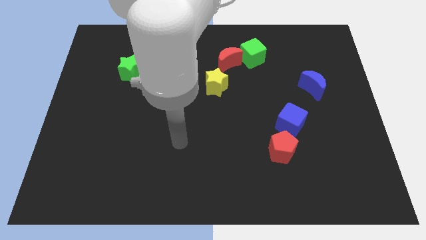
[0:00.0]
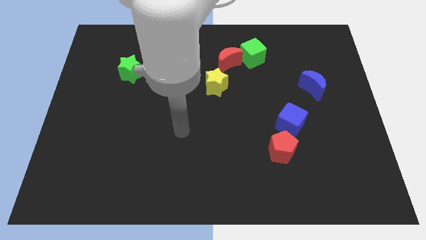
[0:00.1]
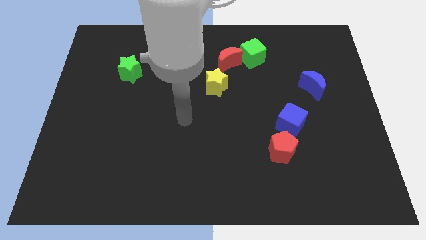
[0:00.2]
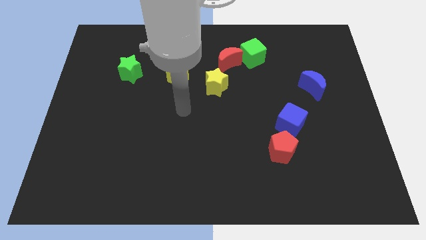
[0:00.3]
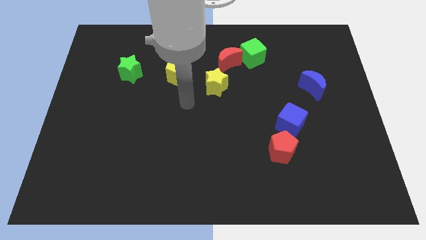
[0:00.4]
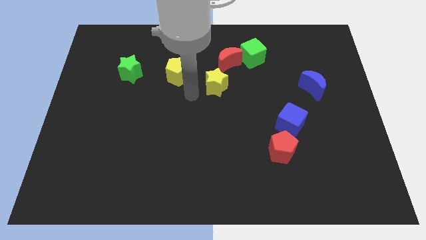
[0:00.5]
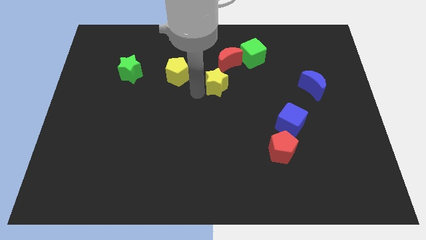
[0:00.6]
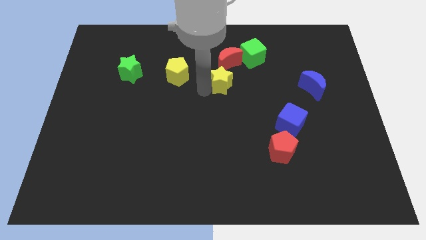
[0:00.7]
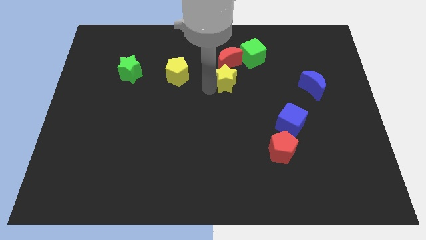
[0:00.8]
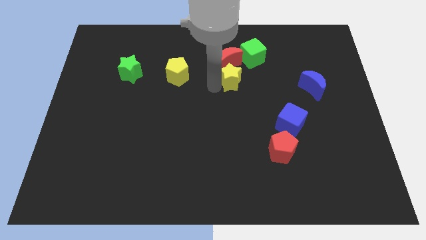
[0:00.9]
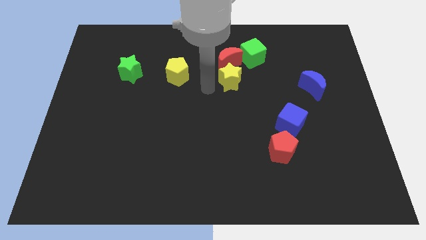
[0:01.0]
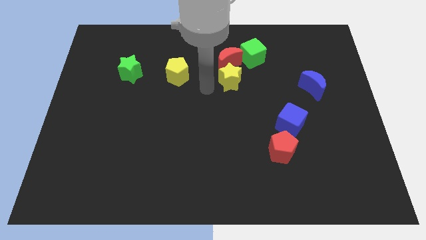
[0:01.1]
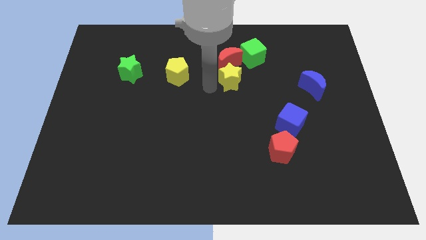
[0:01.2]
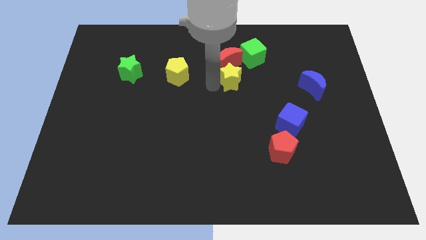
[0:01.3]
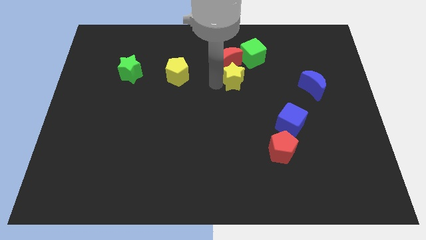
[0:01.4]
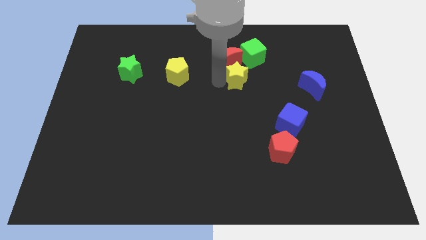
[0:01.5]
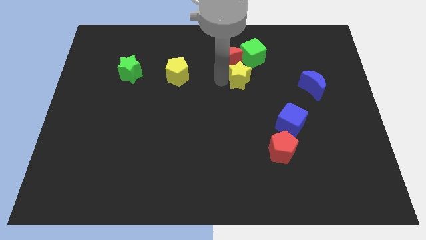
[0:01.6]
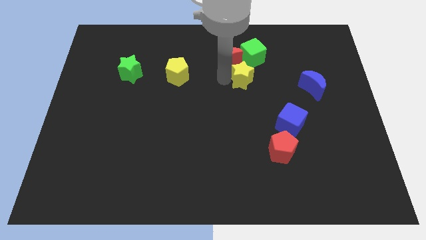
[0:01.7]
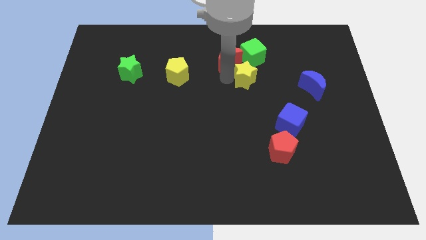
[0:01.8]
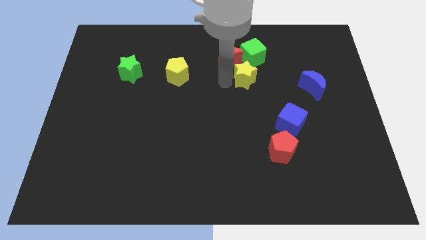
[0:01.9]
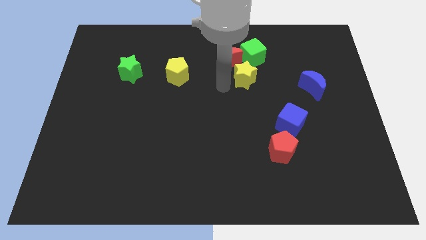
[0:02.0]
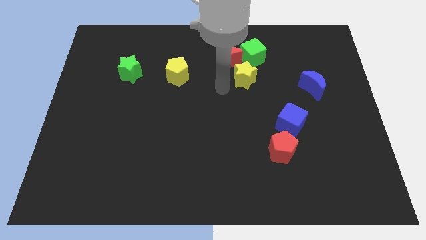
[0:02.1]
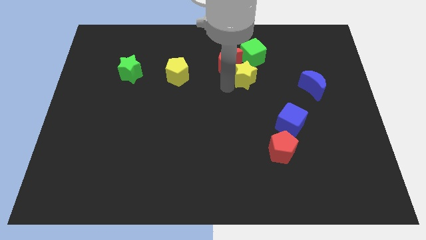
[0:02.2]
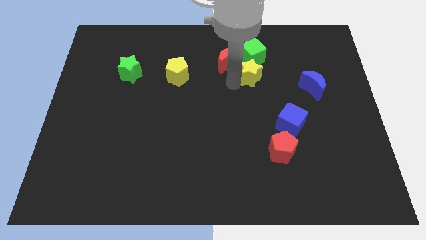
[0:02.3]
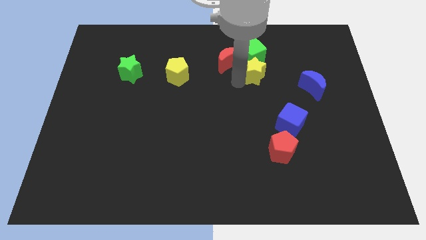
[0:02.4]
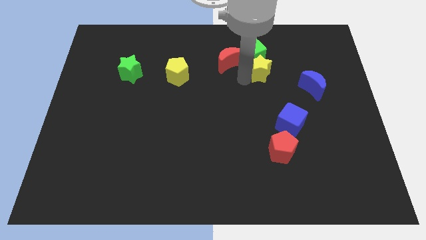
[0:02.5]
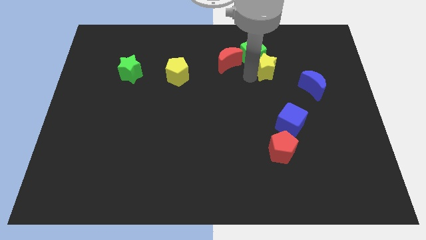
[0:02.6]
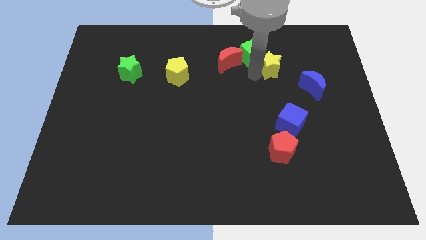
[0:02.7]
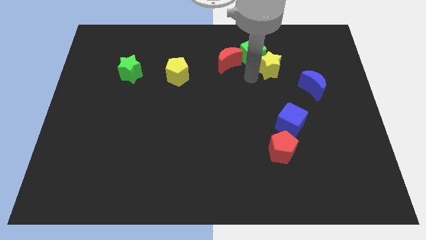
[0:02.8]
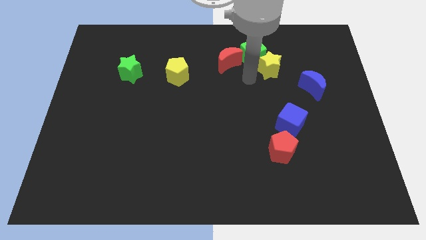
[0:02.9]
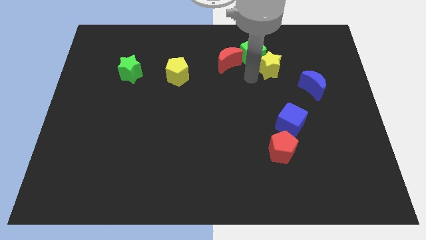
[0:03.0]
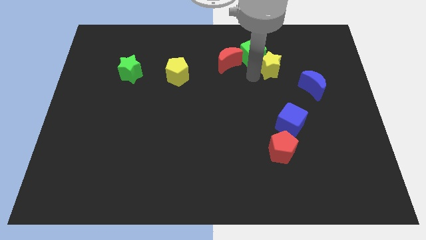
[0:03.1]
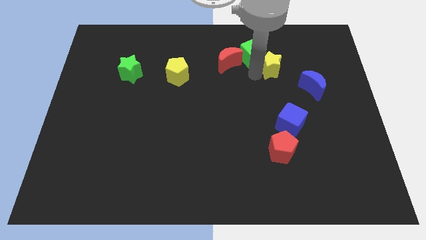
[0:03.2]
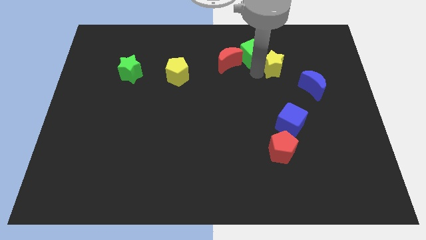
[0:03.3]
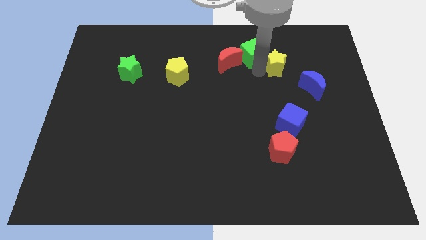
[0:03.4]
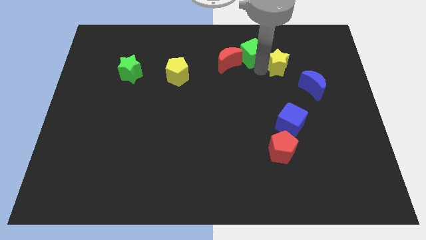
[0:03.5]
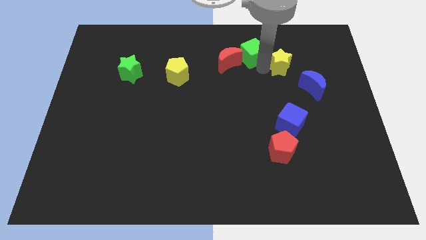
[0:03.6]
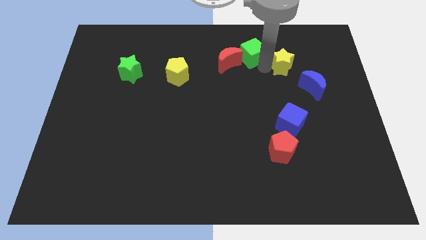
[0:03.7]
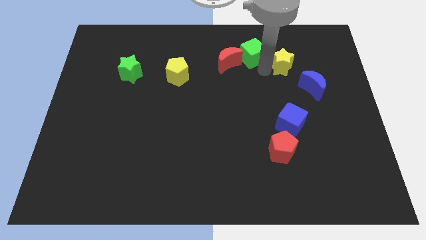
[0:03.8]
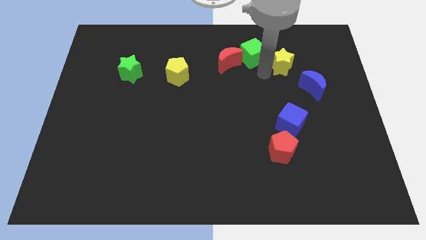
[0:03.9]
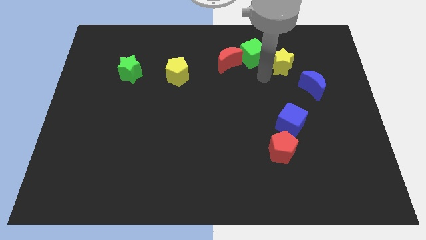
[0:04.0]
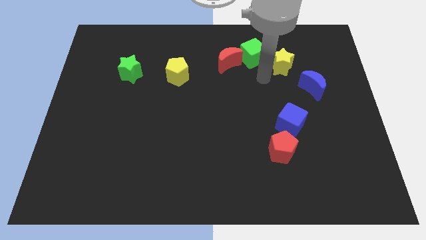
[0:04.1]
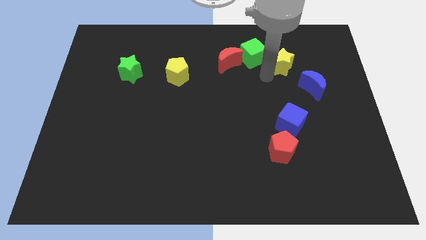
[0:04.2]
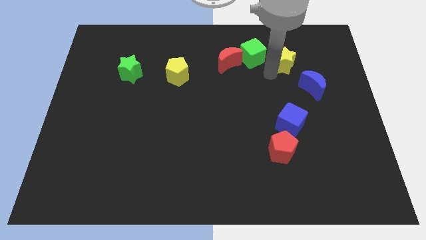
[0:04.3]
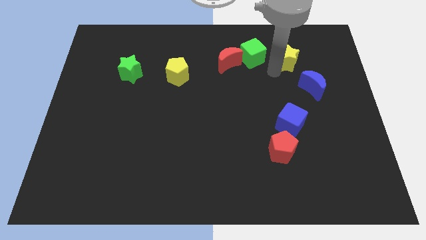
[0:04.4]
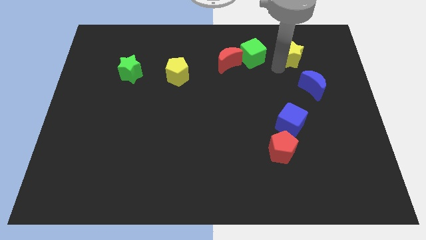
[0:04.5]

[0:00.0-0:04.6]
push the yellow star to the top of the blue moon

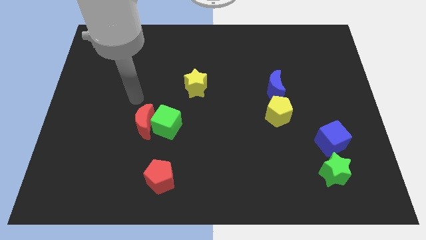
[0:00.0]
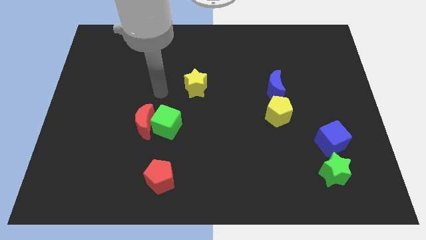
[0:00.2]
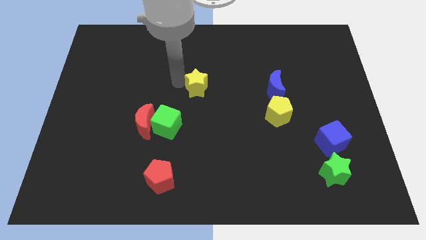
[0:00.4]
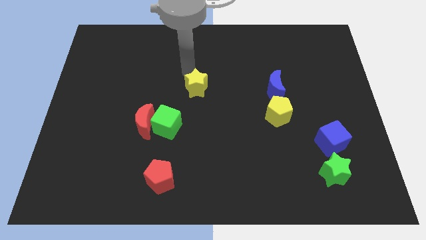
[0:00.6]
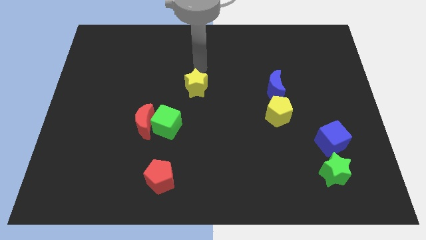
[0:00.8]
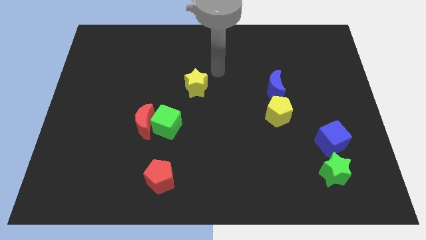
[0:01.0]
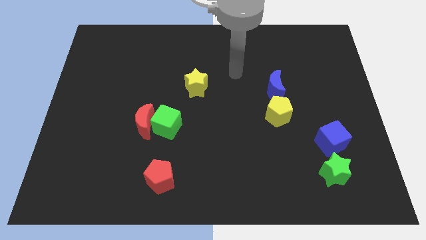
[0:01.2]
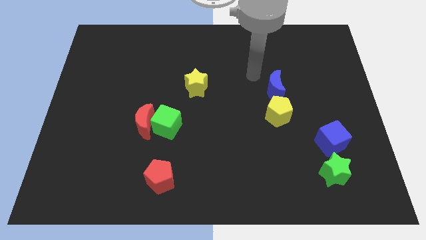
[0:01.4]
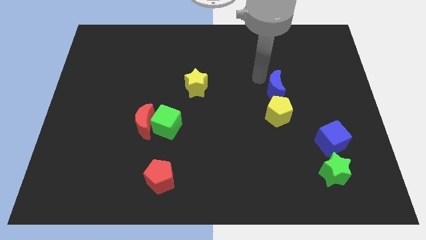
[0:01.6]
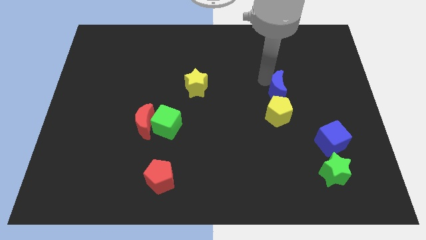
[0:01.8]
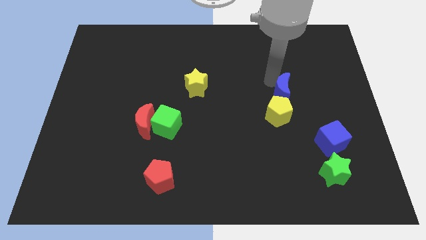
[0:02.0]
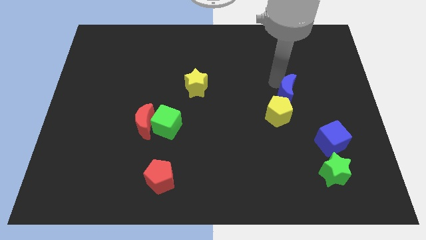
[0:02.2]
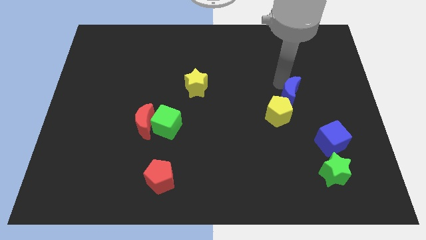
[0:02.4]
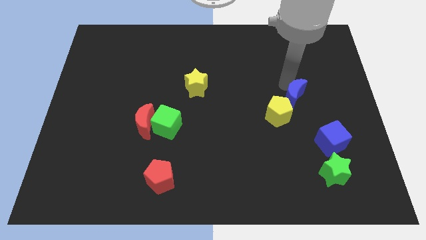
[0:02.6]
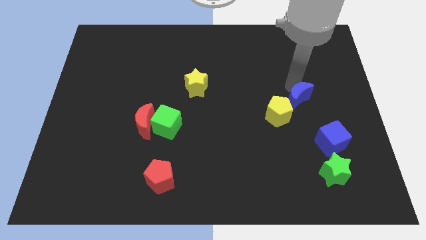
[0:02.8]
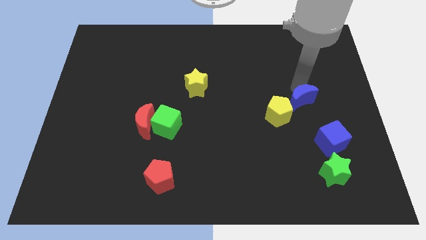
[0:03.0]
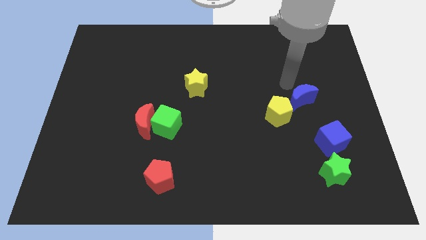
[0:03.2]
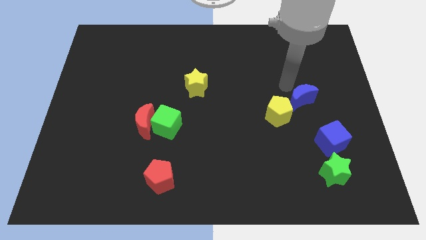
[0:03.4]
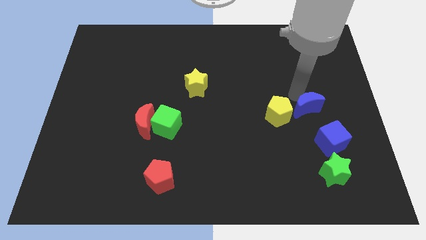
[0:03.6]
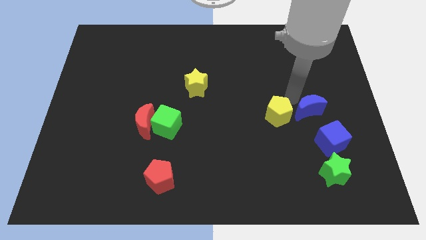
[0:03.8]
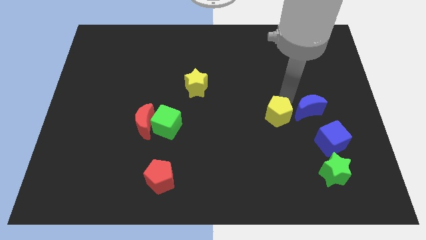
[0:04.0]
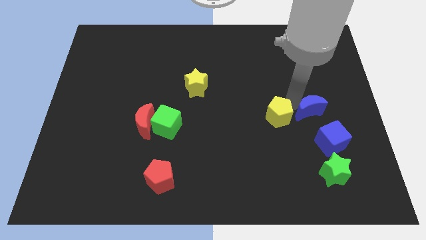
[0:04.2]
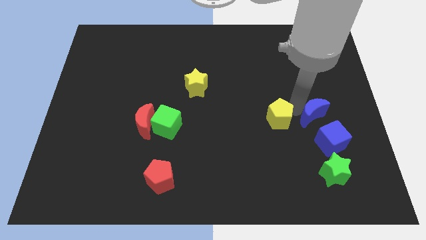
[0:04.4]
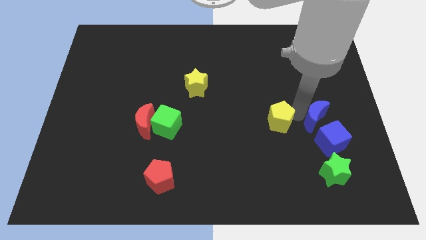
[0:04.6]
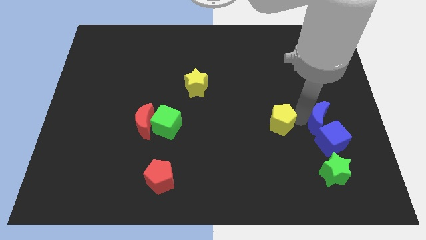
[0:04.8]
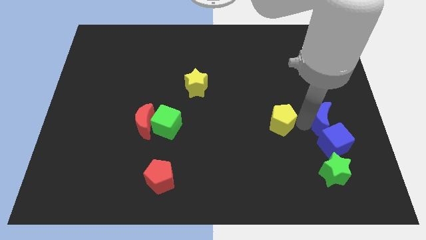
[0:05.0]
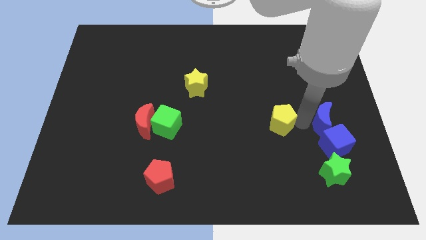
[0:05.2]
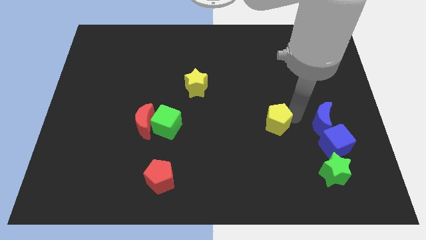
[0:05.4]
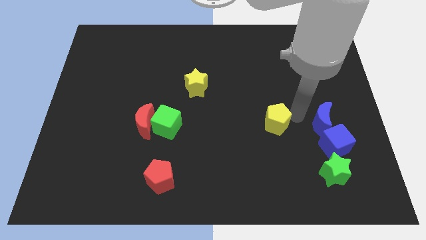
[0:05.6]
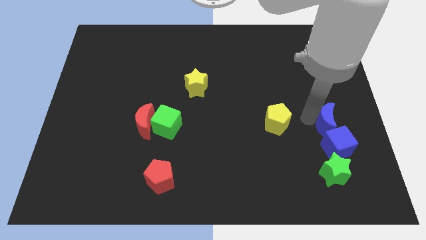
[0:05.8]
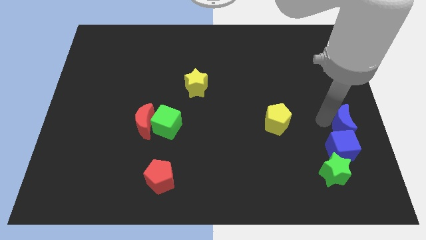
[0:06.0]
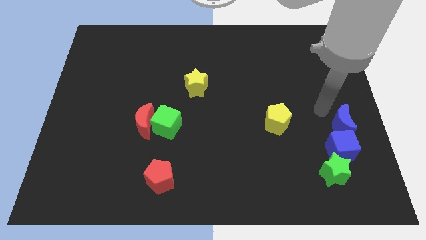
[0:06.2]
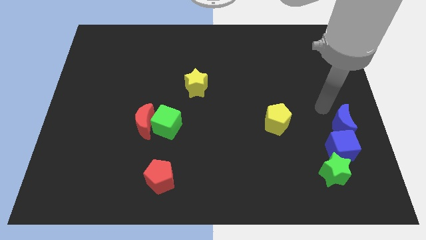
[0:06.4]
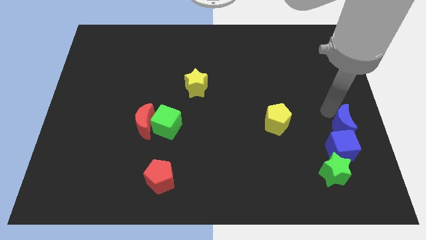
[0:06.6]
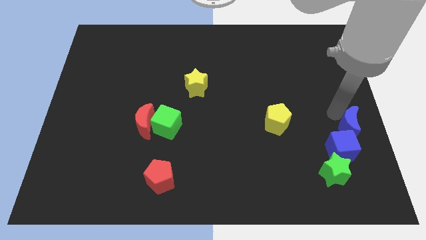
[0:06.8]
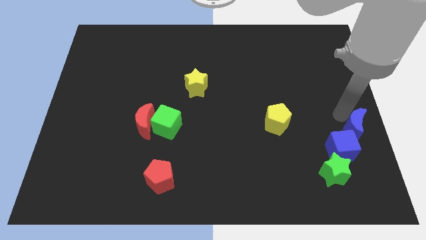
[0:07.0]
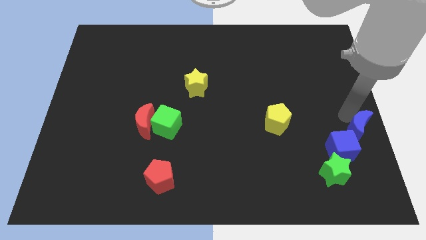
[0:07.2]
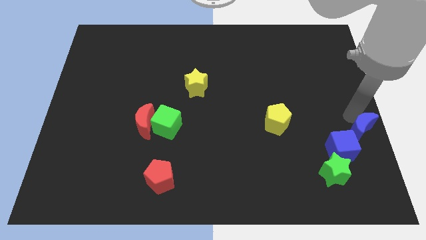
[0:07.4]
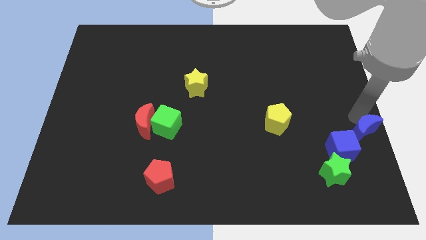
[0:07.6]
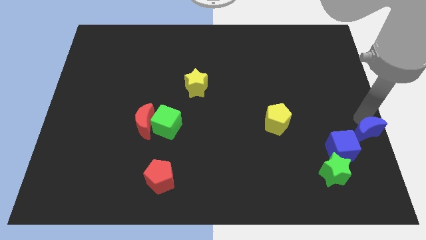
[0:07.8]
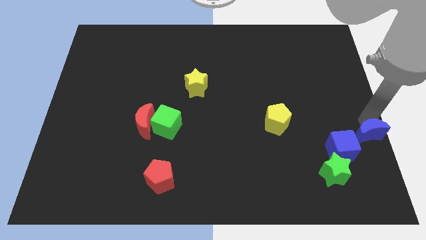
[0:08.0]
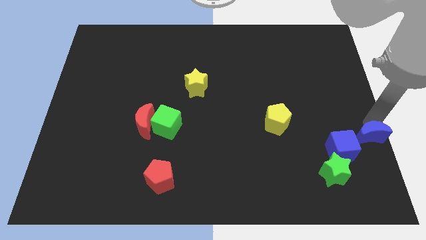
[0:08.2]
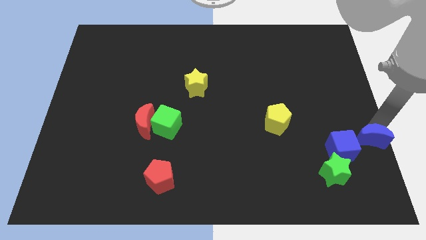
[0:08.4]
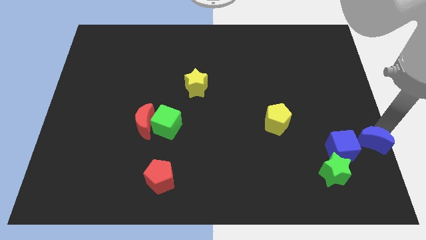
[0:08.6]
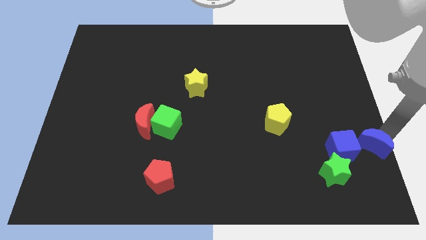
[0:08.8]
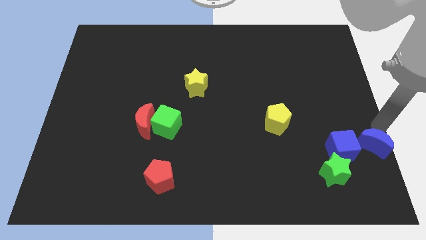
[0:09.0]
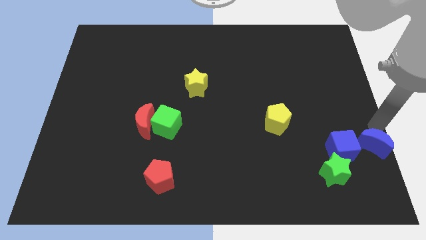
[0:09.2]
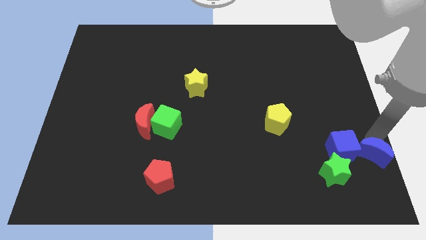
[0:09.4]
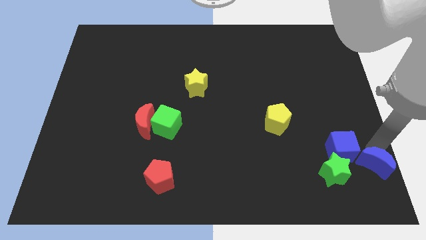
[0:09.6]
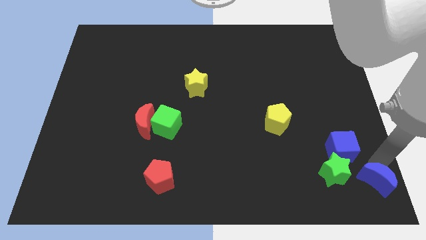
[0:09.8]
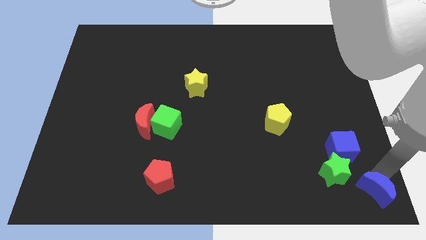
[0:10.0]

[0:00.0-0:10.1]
slide the blue moon to the bottom side of the blue cube
